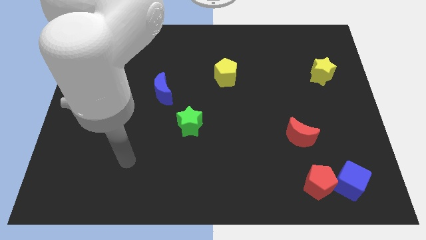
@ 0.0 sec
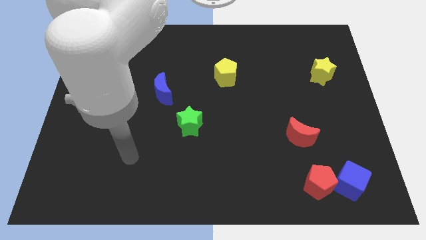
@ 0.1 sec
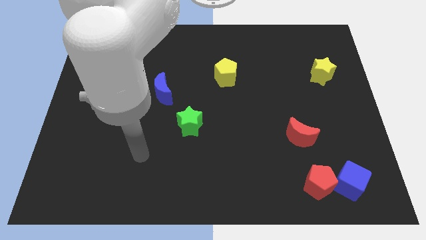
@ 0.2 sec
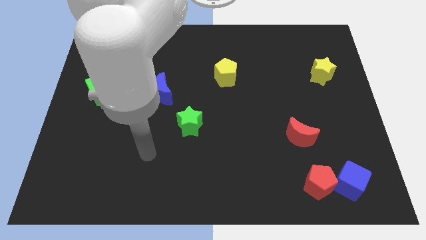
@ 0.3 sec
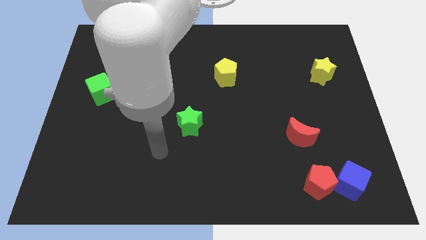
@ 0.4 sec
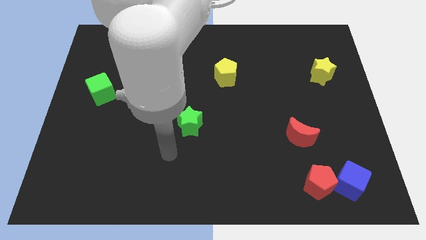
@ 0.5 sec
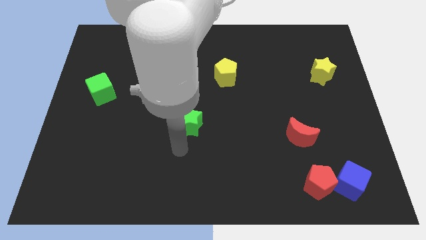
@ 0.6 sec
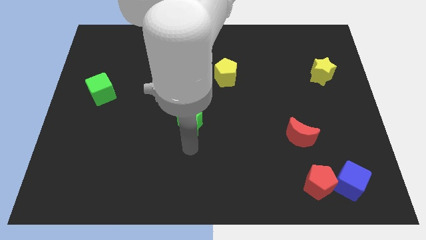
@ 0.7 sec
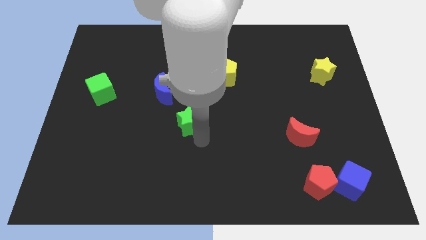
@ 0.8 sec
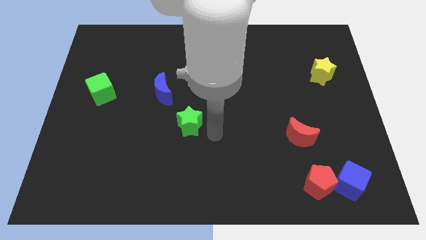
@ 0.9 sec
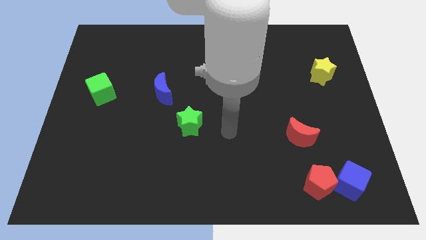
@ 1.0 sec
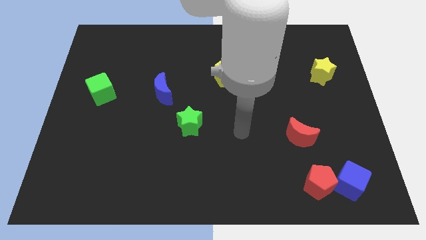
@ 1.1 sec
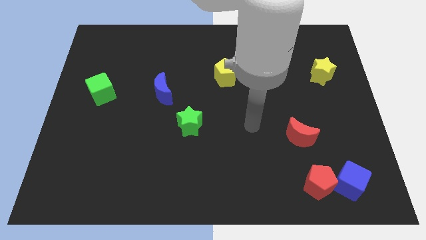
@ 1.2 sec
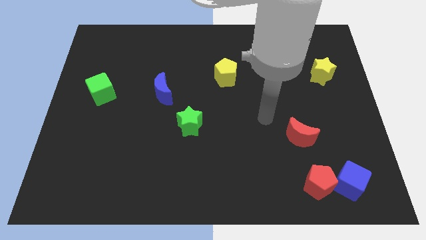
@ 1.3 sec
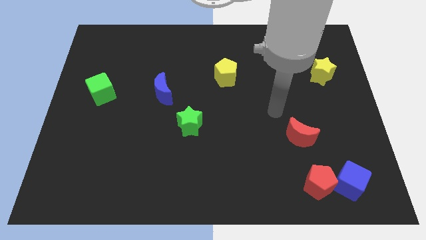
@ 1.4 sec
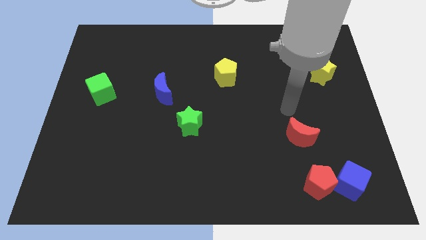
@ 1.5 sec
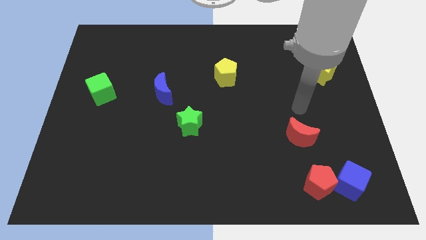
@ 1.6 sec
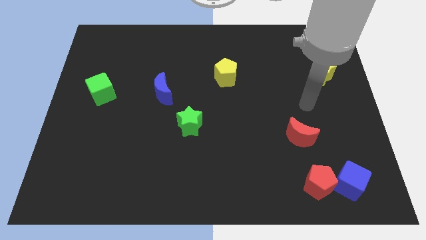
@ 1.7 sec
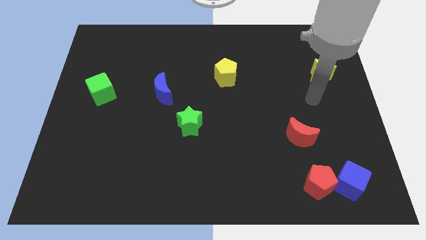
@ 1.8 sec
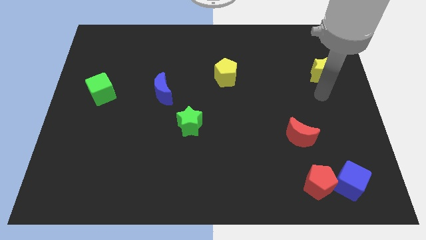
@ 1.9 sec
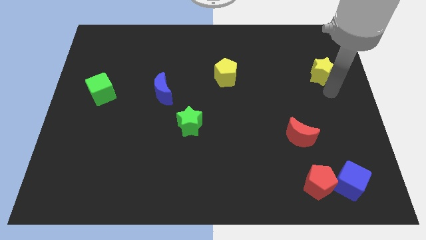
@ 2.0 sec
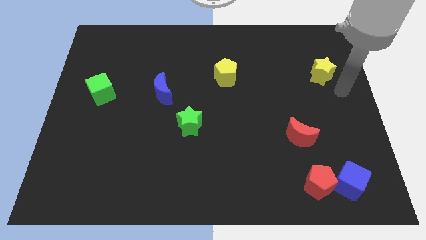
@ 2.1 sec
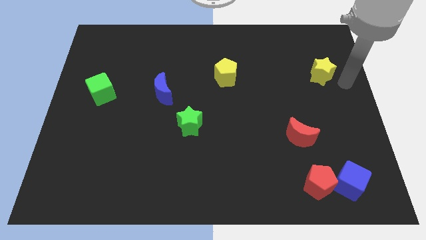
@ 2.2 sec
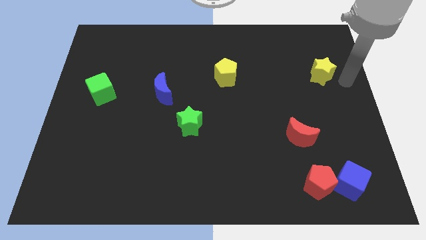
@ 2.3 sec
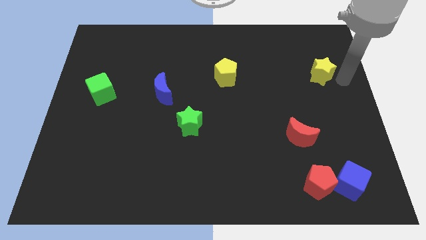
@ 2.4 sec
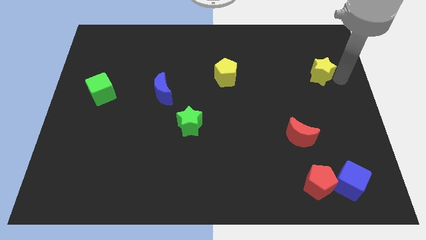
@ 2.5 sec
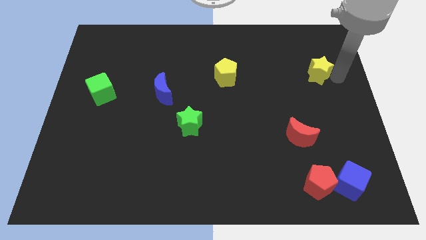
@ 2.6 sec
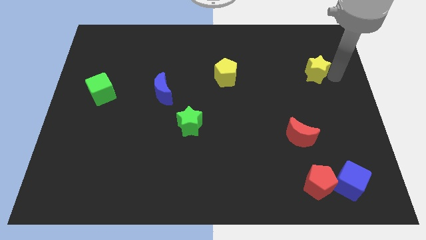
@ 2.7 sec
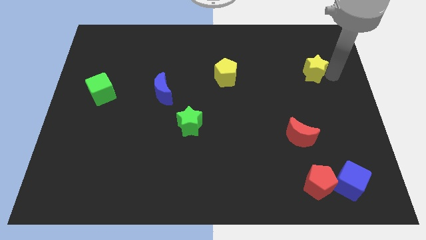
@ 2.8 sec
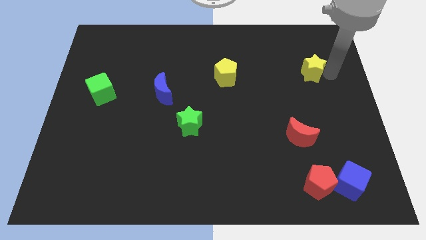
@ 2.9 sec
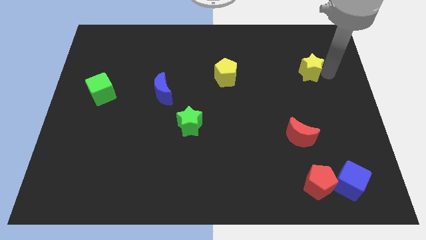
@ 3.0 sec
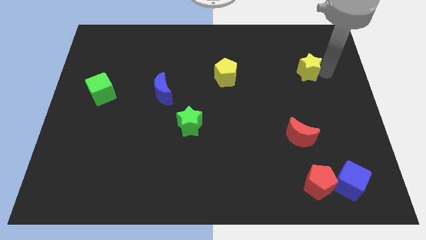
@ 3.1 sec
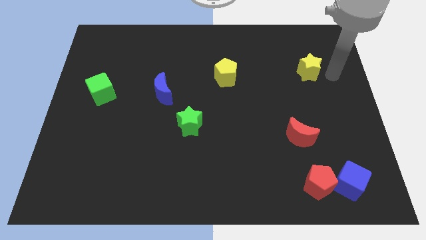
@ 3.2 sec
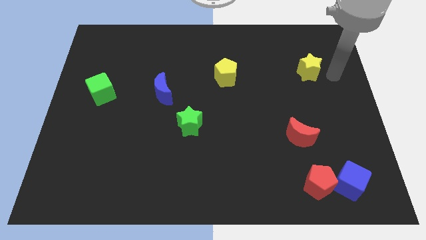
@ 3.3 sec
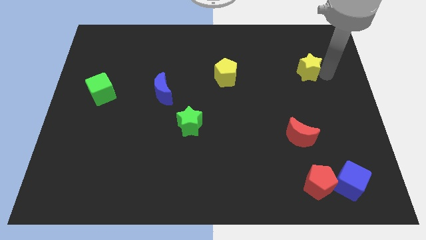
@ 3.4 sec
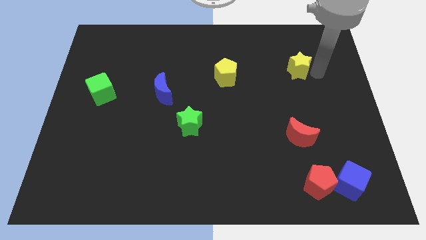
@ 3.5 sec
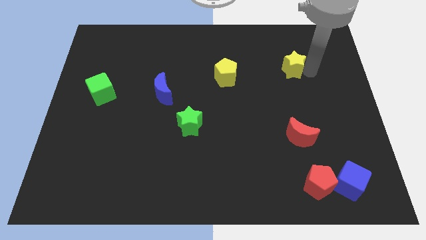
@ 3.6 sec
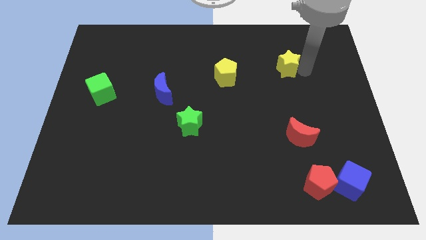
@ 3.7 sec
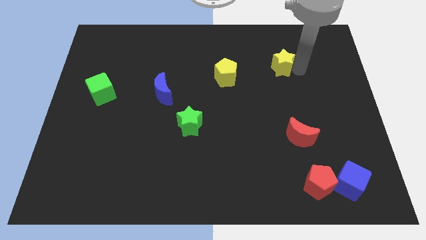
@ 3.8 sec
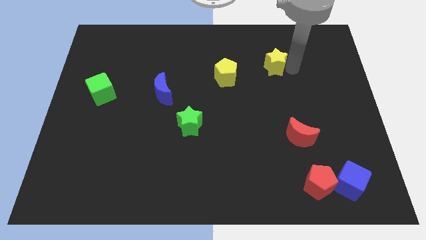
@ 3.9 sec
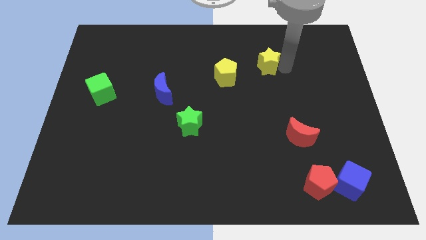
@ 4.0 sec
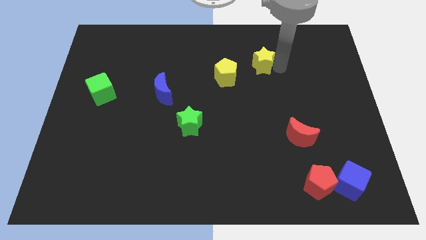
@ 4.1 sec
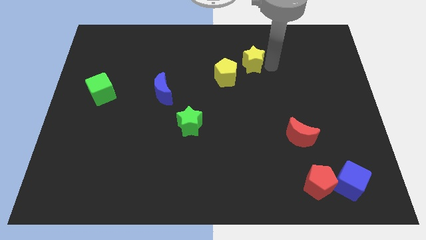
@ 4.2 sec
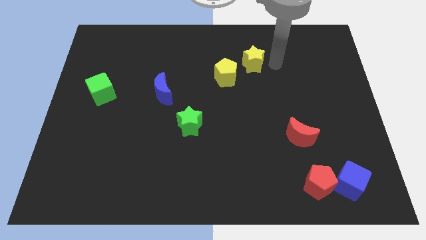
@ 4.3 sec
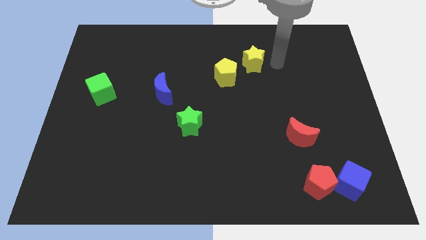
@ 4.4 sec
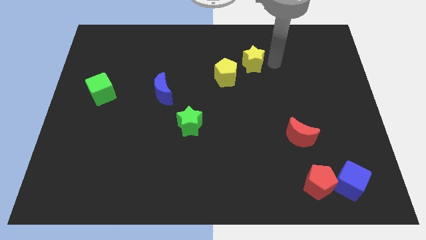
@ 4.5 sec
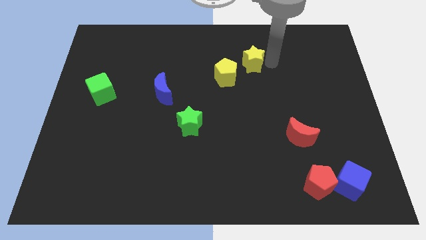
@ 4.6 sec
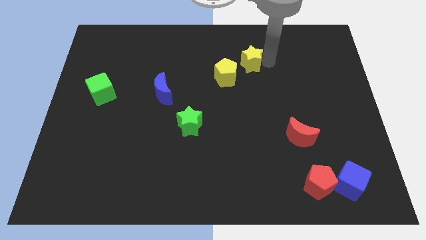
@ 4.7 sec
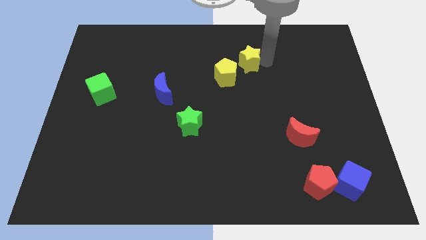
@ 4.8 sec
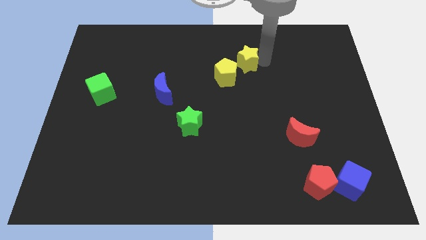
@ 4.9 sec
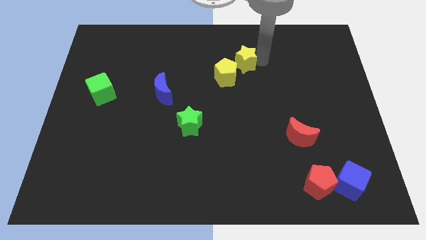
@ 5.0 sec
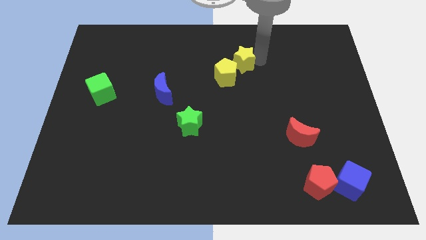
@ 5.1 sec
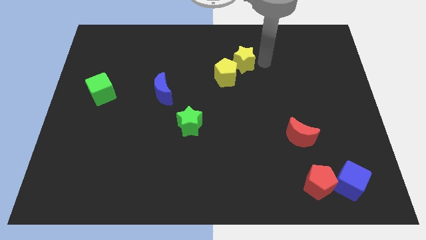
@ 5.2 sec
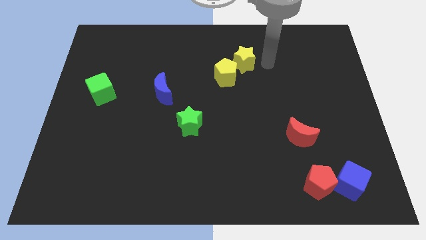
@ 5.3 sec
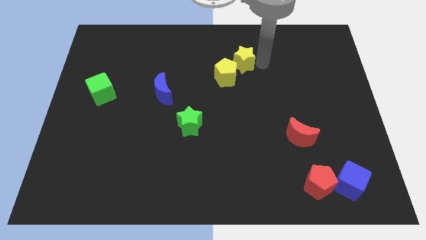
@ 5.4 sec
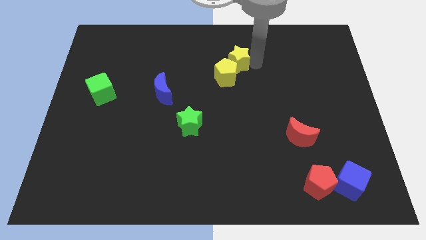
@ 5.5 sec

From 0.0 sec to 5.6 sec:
move the yellow star left

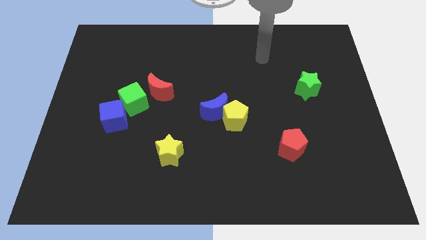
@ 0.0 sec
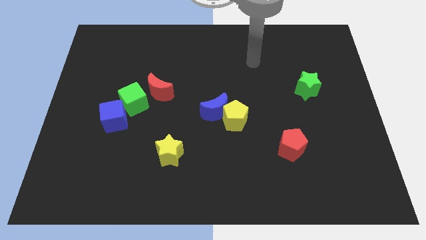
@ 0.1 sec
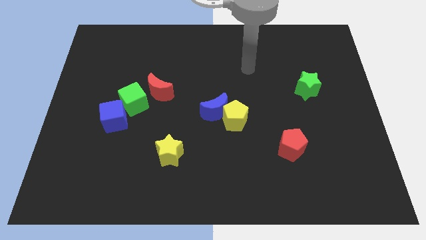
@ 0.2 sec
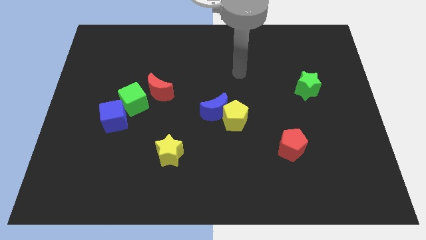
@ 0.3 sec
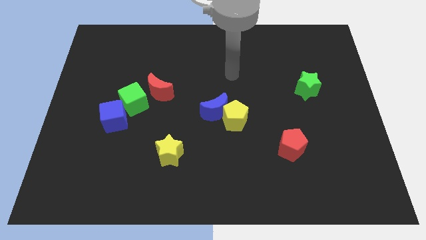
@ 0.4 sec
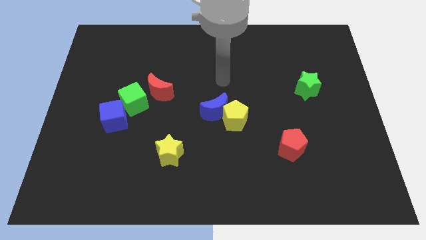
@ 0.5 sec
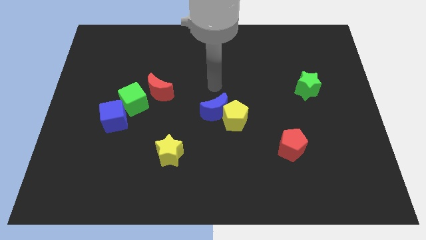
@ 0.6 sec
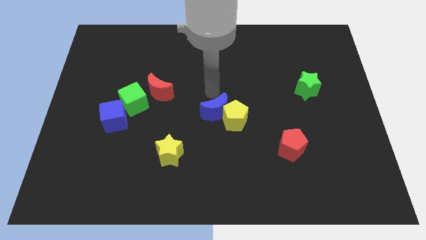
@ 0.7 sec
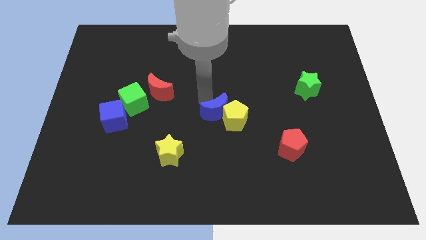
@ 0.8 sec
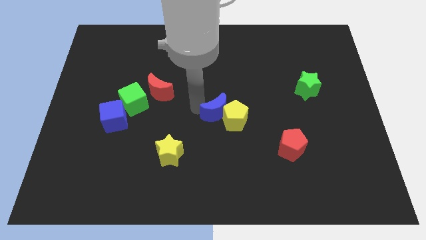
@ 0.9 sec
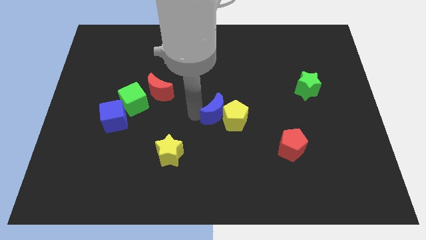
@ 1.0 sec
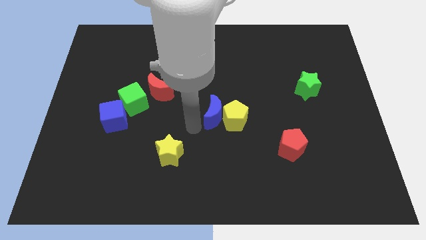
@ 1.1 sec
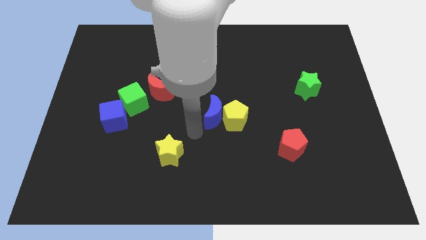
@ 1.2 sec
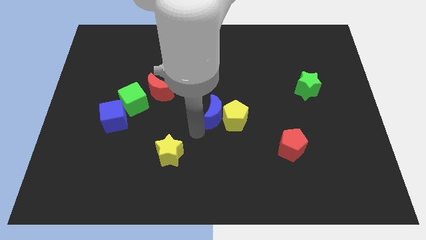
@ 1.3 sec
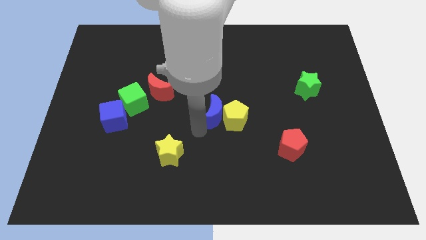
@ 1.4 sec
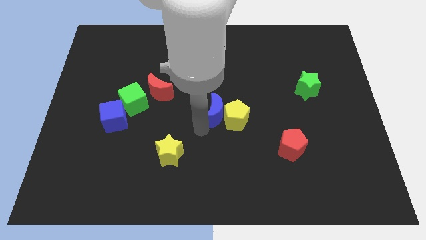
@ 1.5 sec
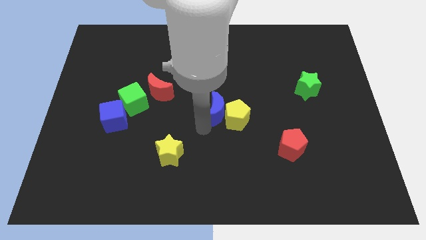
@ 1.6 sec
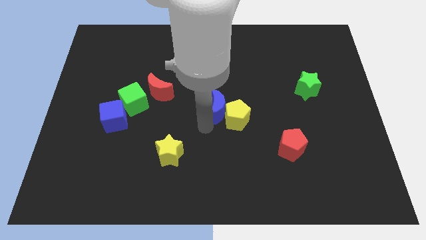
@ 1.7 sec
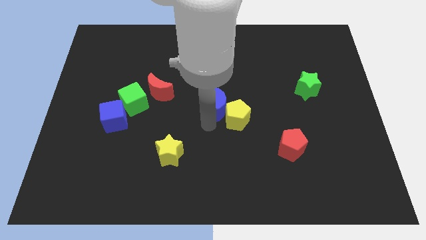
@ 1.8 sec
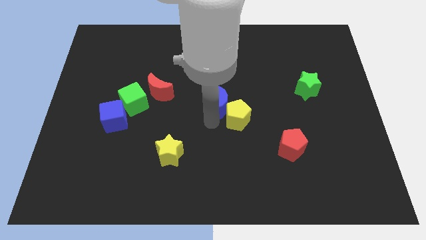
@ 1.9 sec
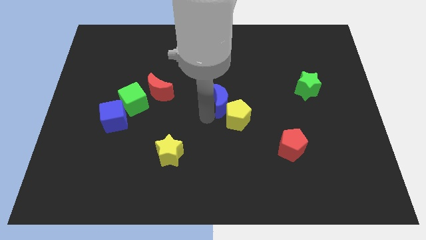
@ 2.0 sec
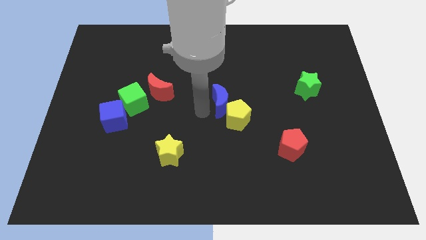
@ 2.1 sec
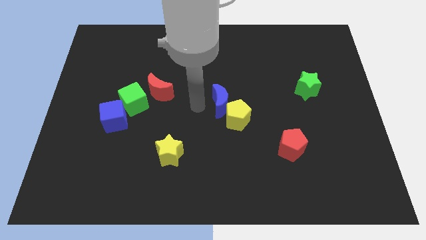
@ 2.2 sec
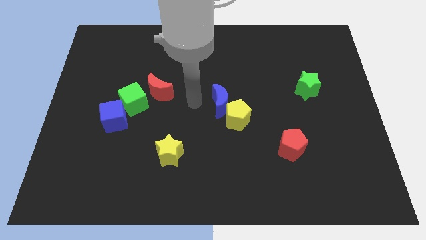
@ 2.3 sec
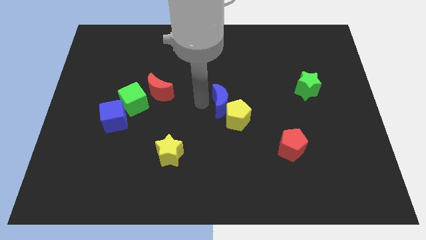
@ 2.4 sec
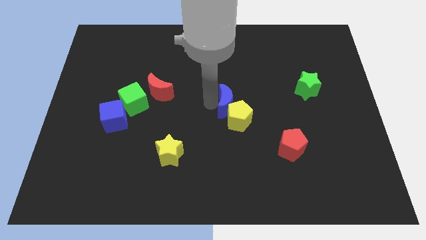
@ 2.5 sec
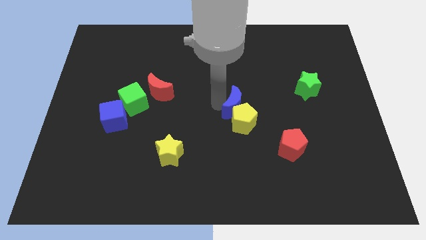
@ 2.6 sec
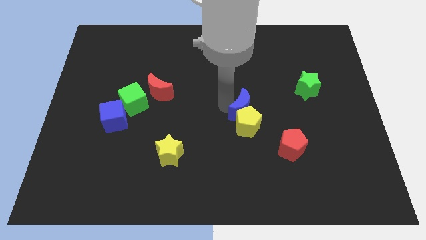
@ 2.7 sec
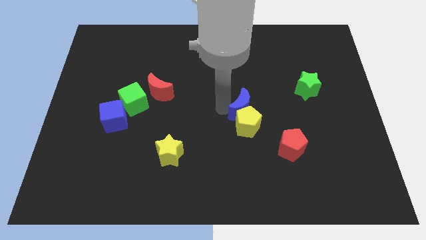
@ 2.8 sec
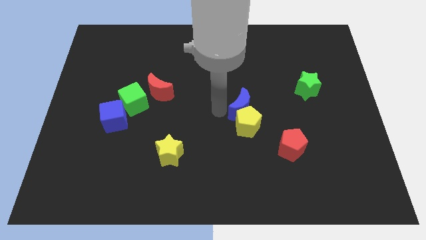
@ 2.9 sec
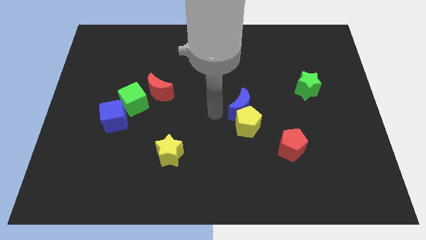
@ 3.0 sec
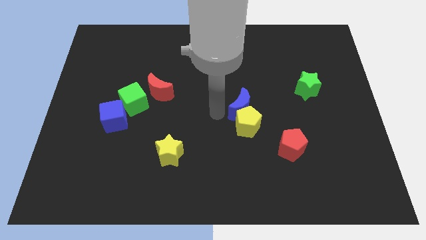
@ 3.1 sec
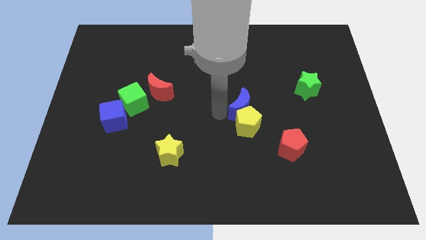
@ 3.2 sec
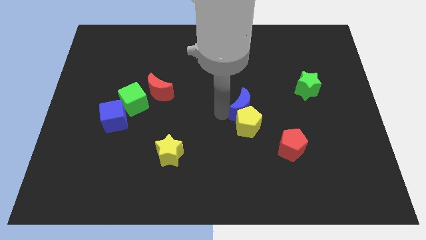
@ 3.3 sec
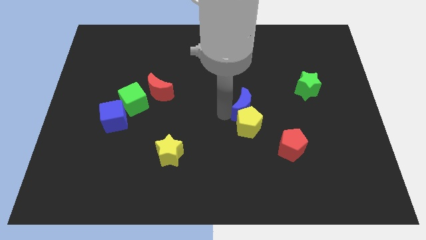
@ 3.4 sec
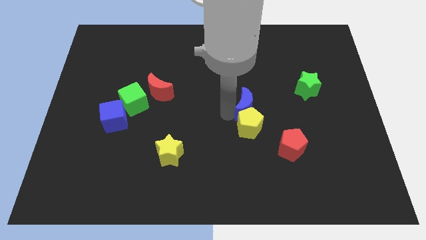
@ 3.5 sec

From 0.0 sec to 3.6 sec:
slide the blue moon to the right a little bit
